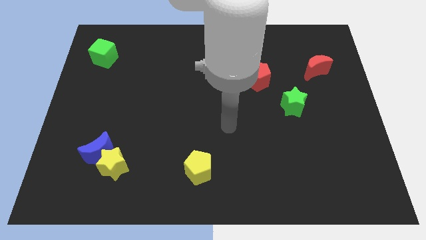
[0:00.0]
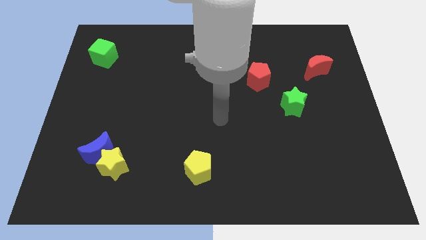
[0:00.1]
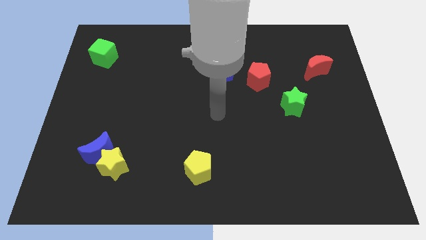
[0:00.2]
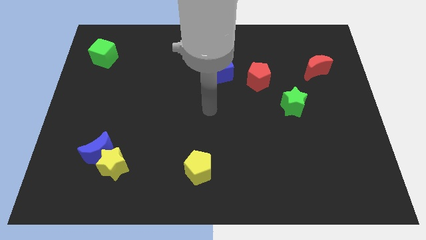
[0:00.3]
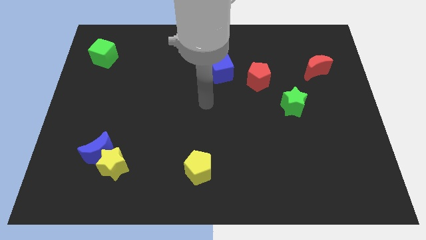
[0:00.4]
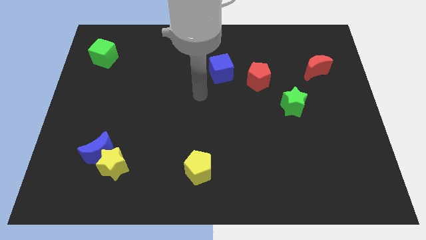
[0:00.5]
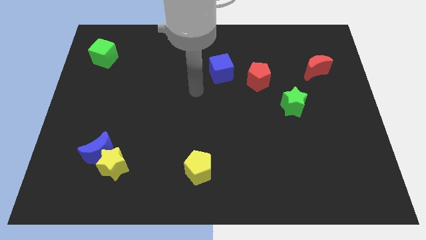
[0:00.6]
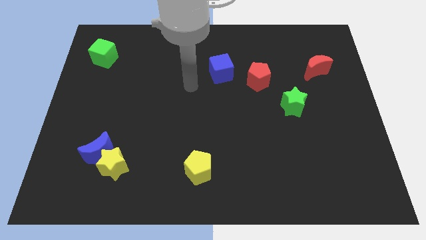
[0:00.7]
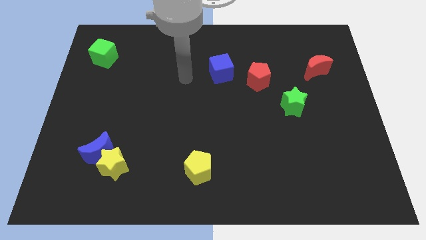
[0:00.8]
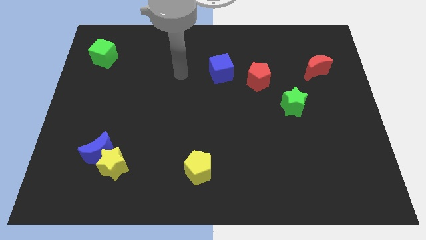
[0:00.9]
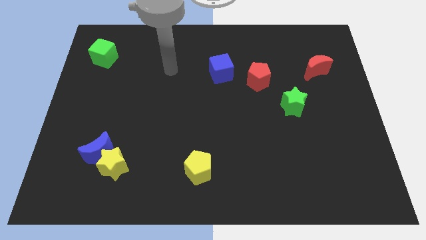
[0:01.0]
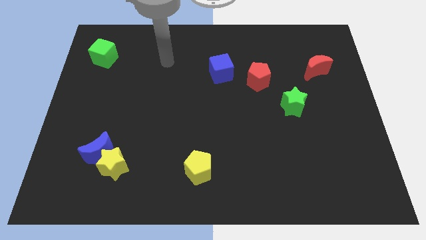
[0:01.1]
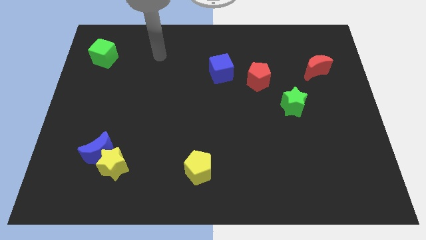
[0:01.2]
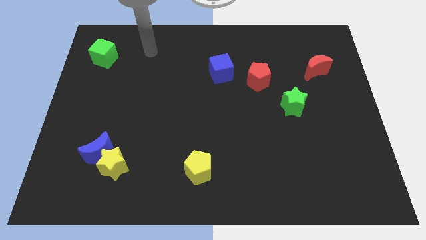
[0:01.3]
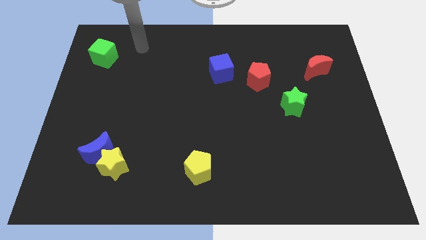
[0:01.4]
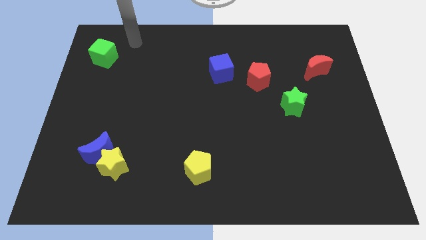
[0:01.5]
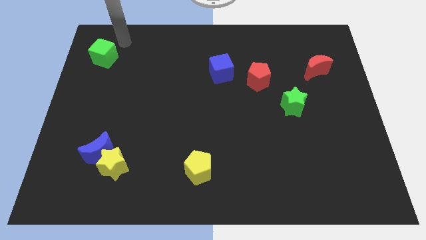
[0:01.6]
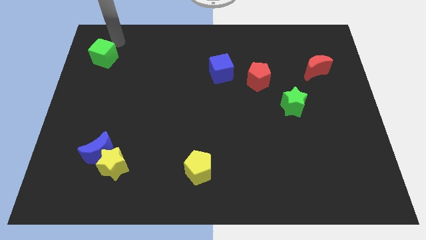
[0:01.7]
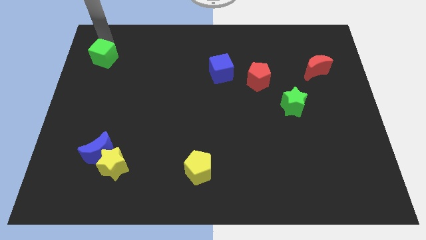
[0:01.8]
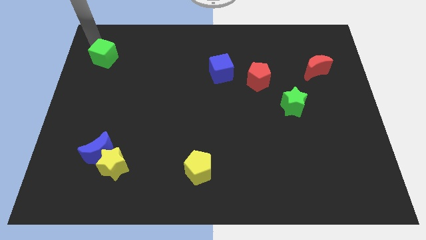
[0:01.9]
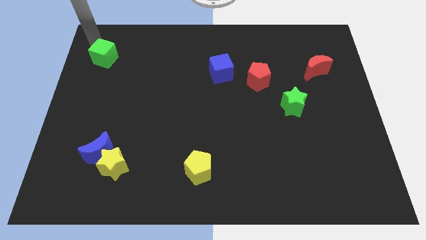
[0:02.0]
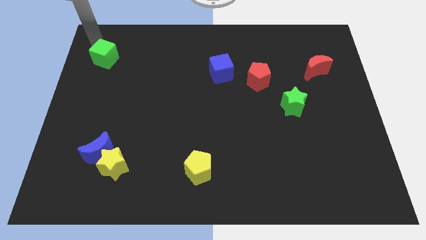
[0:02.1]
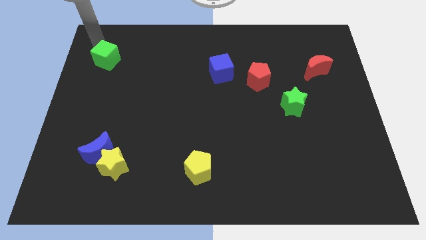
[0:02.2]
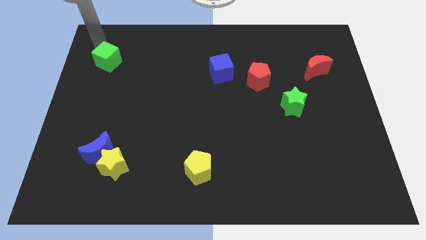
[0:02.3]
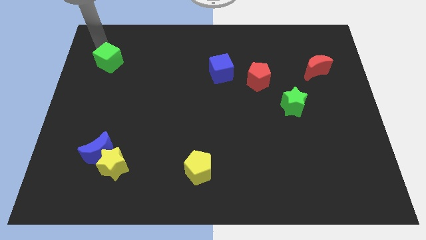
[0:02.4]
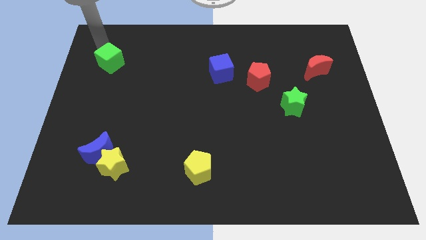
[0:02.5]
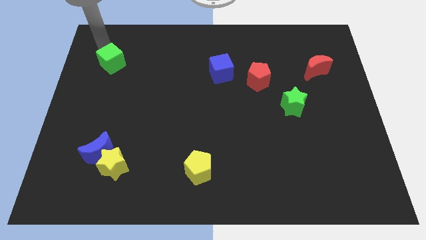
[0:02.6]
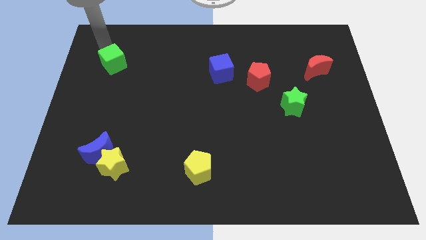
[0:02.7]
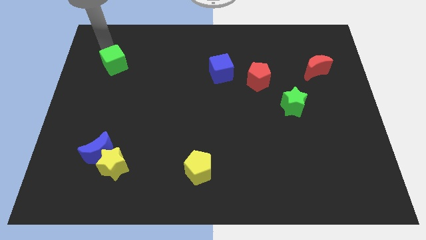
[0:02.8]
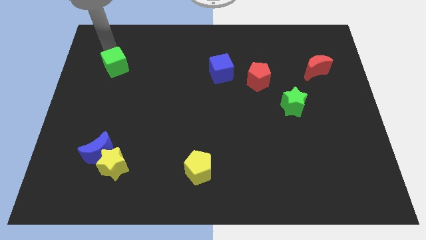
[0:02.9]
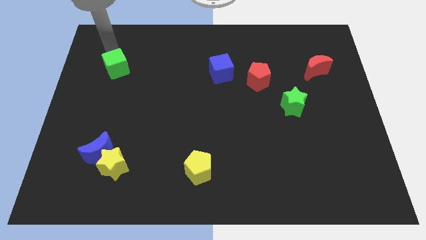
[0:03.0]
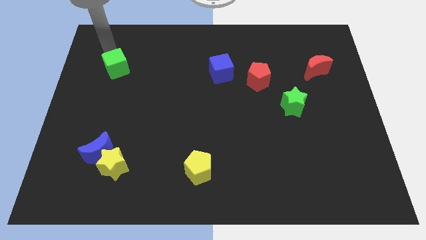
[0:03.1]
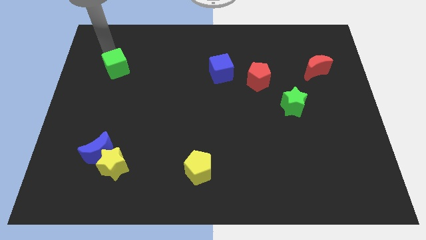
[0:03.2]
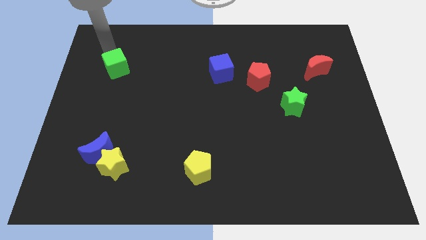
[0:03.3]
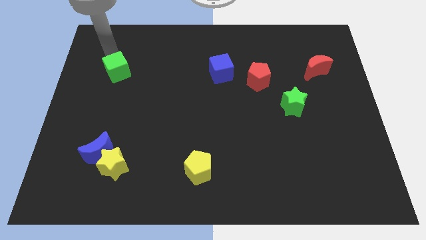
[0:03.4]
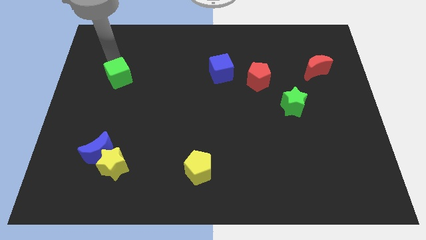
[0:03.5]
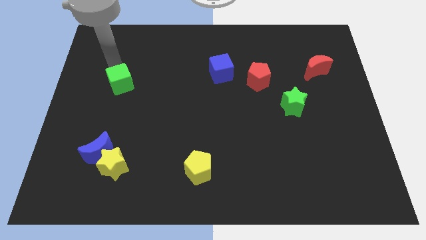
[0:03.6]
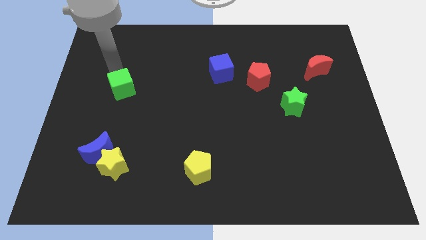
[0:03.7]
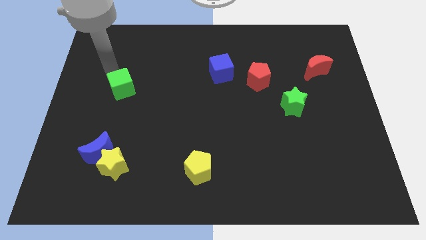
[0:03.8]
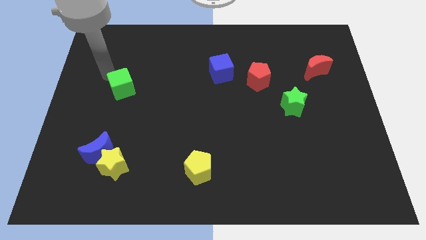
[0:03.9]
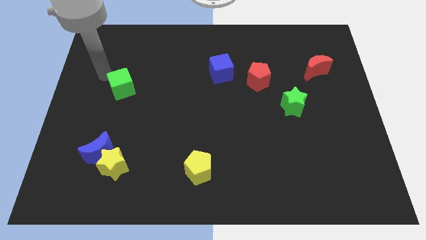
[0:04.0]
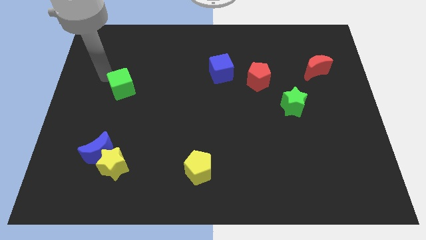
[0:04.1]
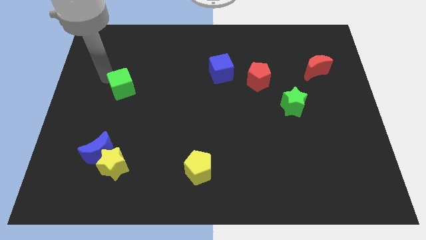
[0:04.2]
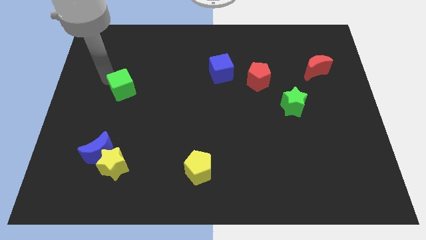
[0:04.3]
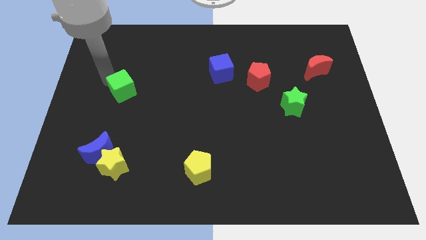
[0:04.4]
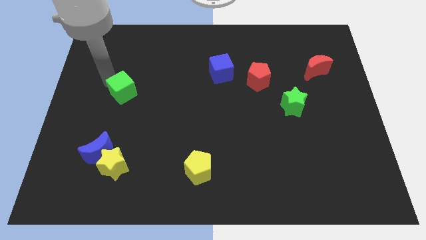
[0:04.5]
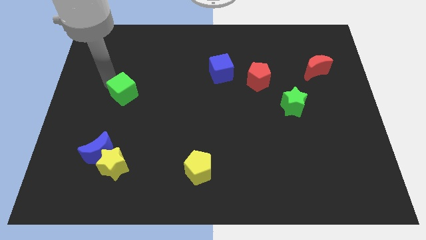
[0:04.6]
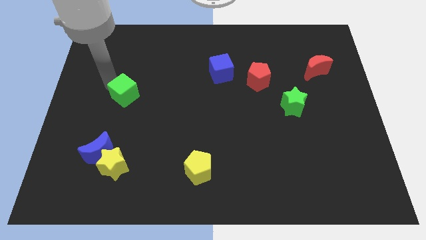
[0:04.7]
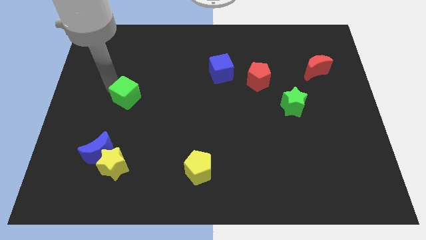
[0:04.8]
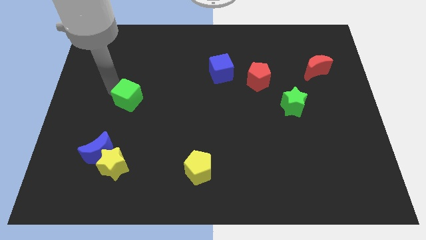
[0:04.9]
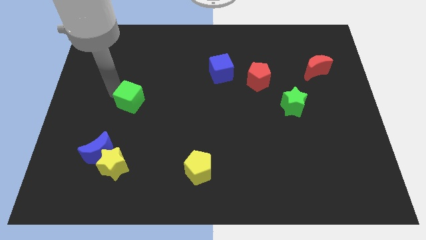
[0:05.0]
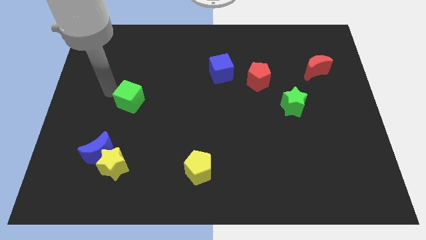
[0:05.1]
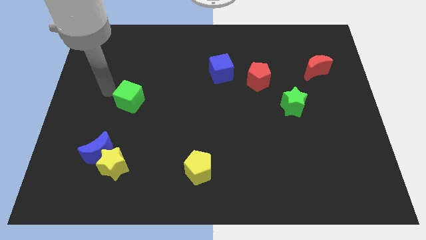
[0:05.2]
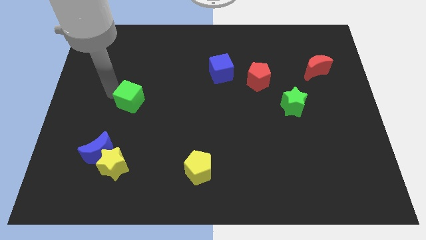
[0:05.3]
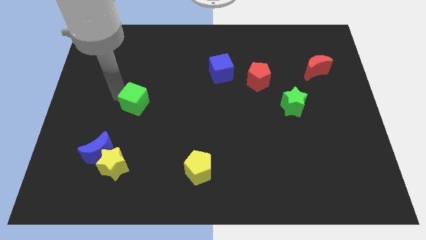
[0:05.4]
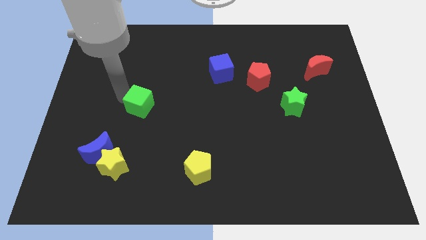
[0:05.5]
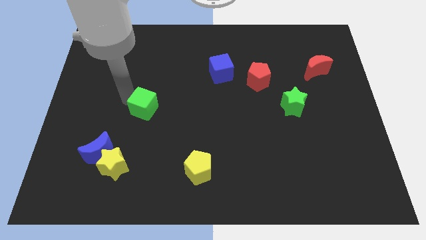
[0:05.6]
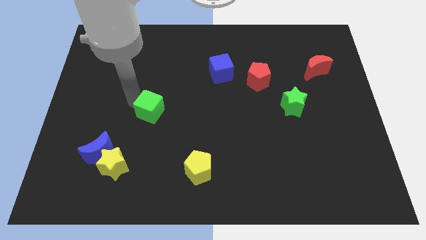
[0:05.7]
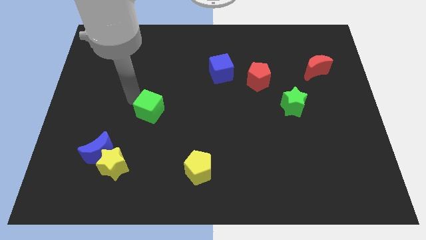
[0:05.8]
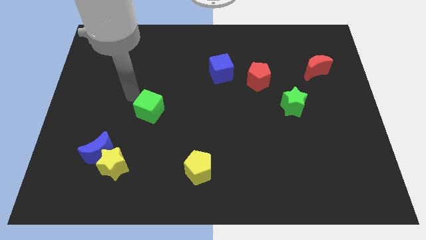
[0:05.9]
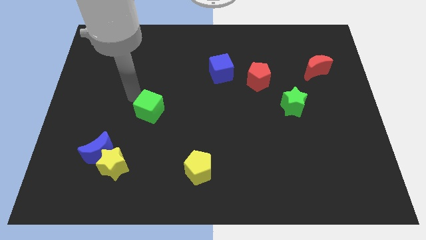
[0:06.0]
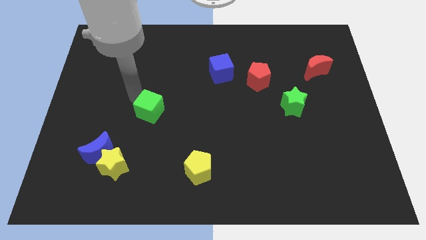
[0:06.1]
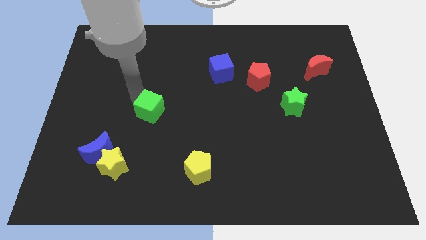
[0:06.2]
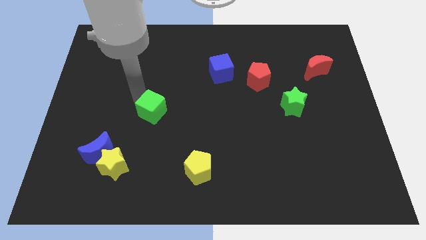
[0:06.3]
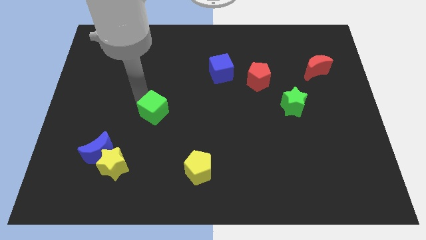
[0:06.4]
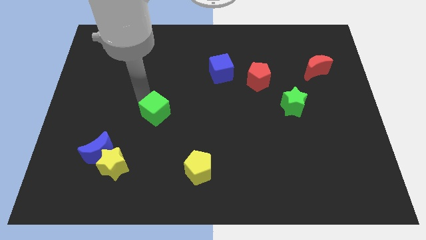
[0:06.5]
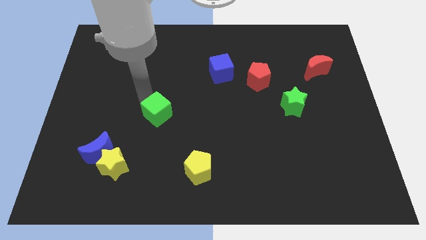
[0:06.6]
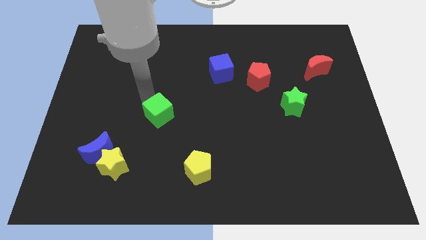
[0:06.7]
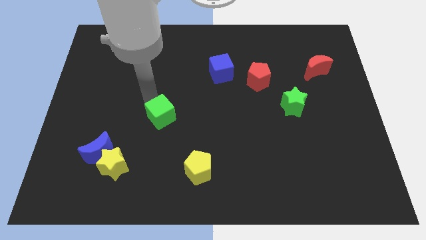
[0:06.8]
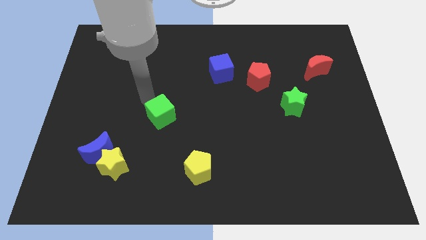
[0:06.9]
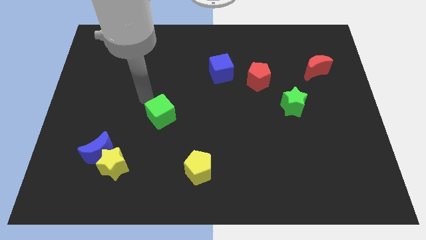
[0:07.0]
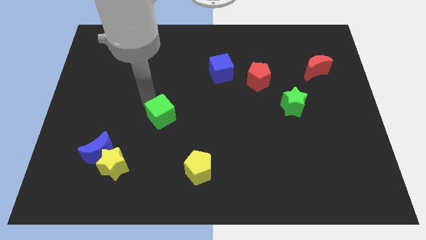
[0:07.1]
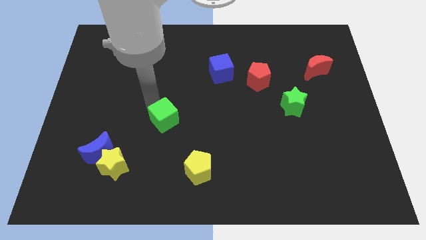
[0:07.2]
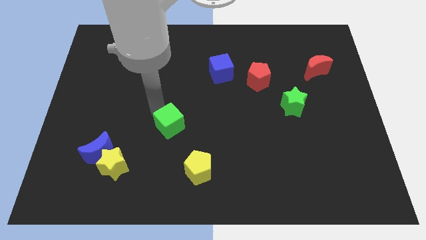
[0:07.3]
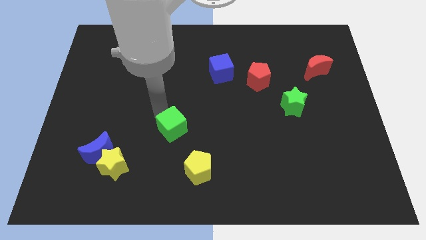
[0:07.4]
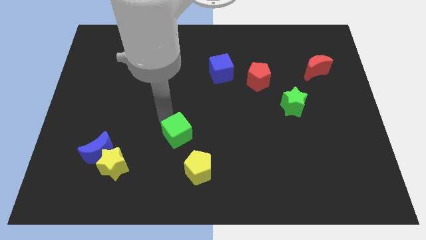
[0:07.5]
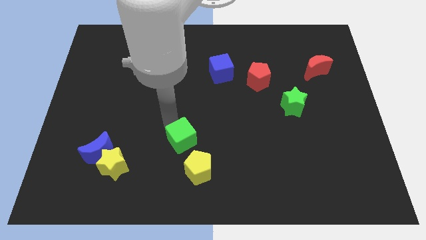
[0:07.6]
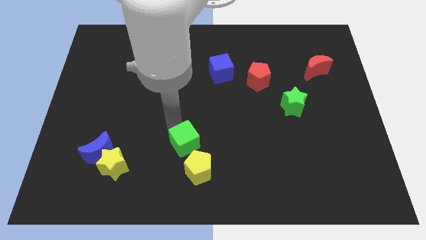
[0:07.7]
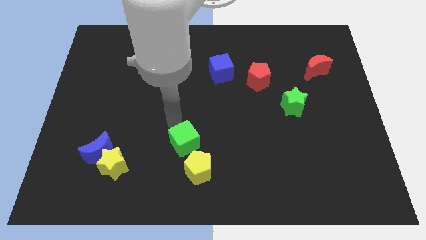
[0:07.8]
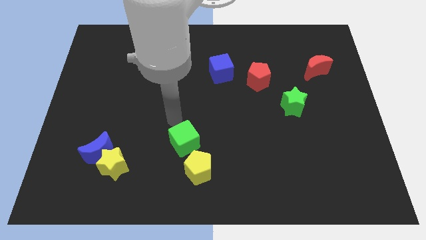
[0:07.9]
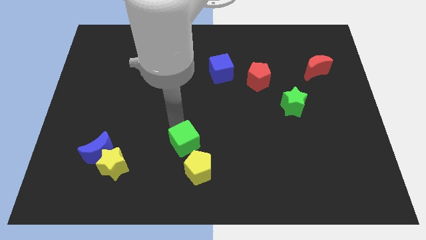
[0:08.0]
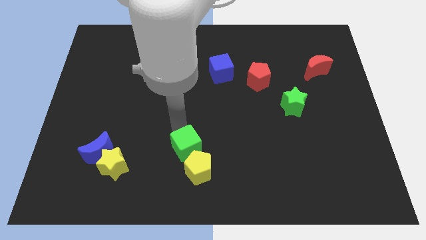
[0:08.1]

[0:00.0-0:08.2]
slide the green cube to the yellow pentagon
